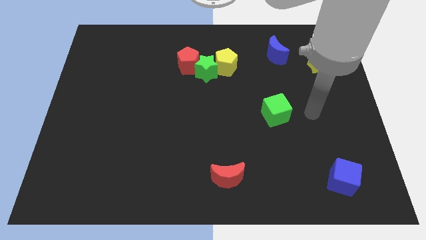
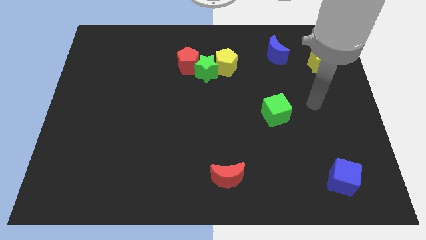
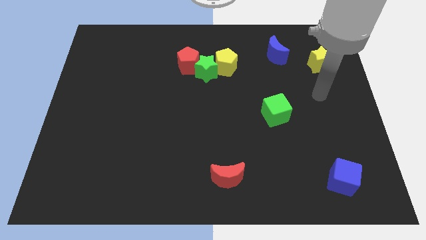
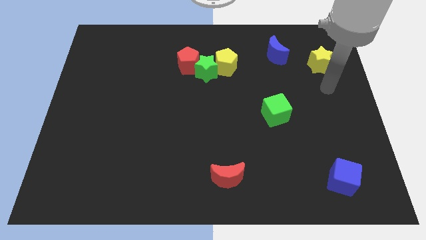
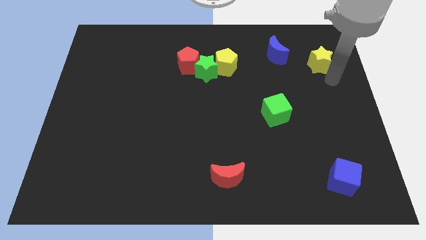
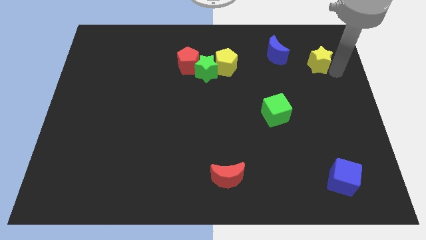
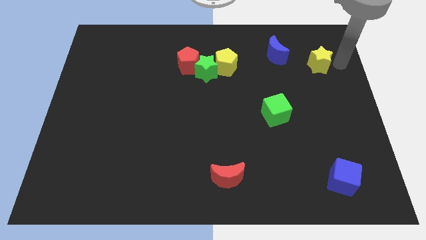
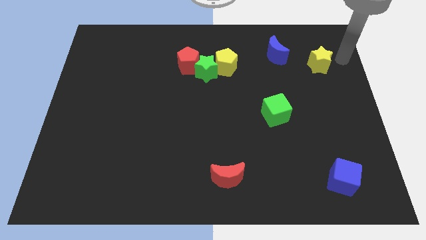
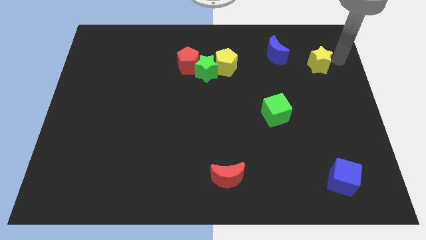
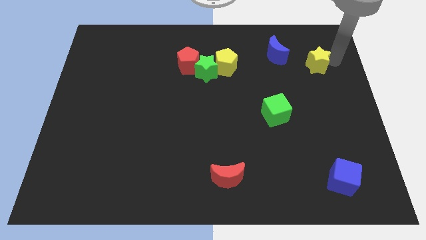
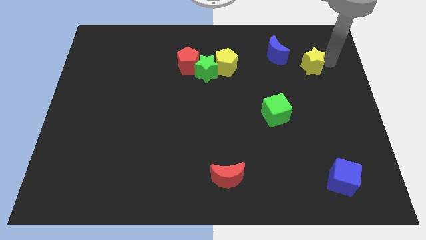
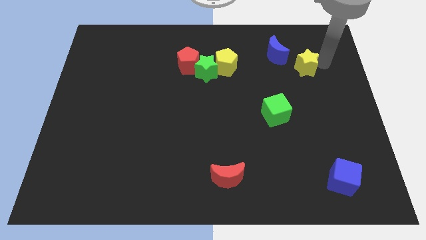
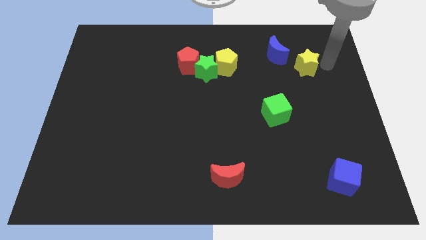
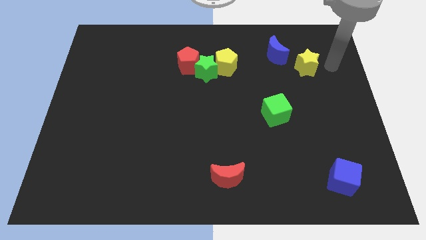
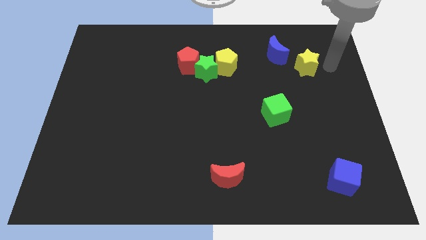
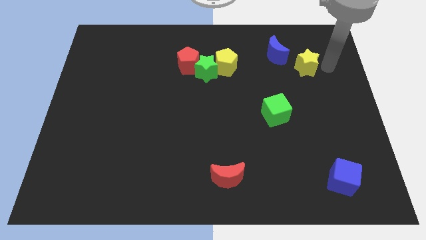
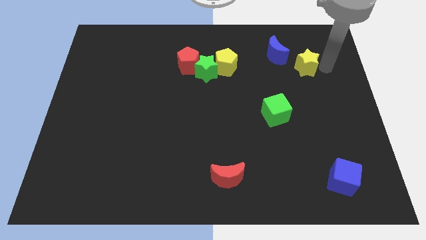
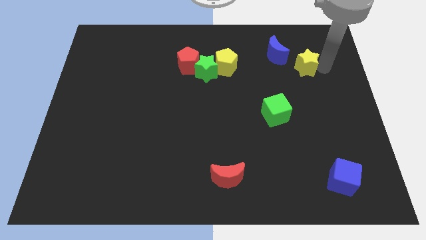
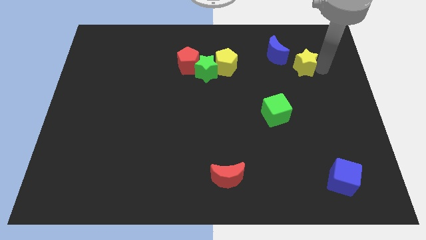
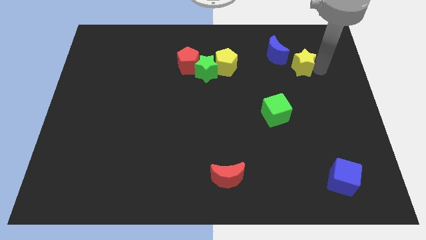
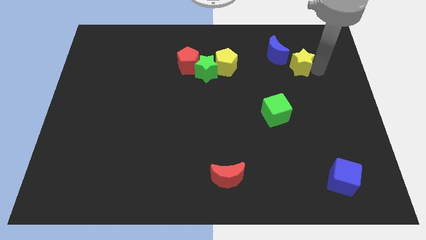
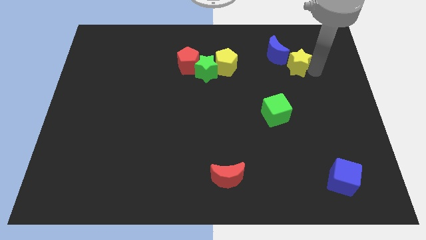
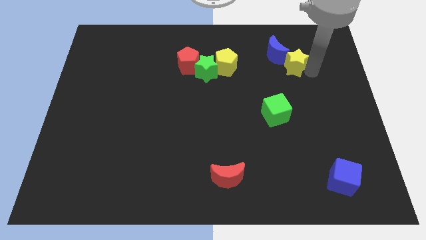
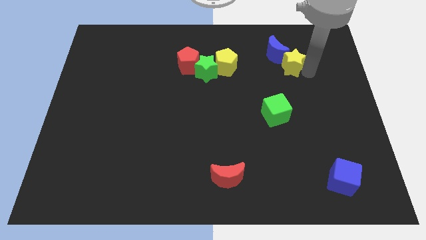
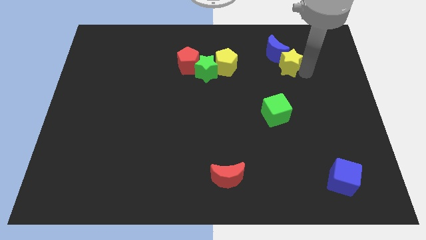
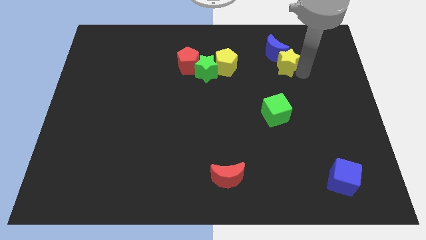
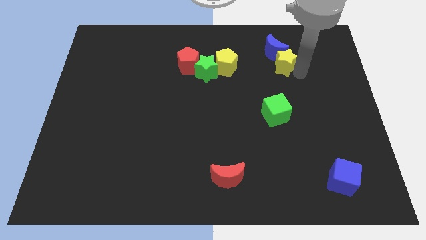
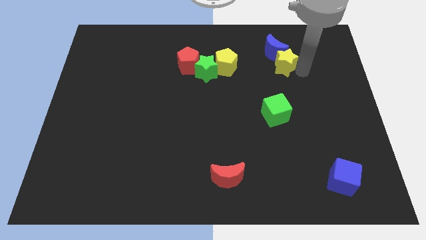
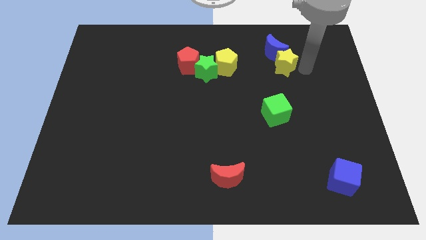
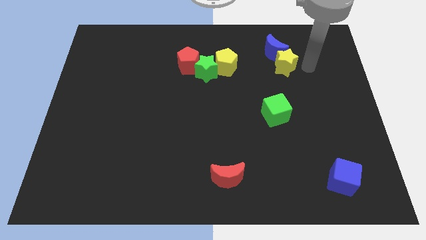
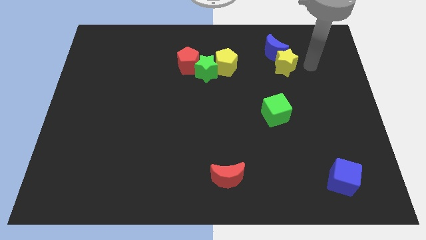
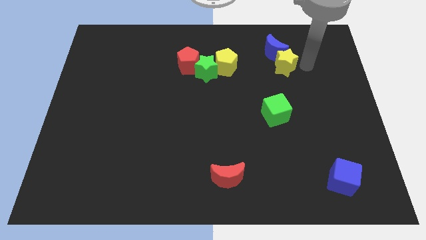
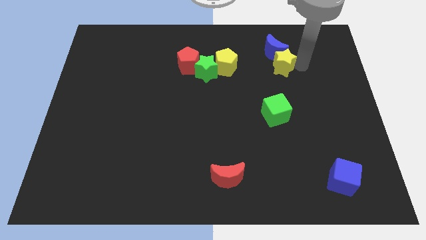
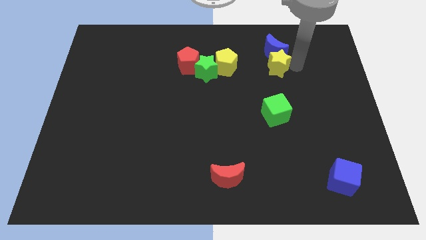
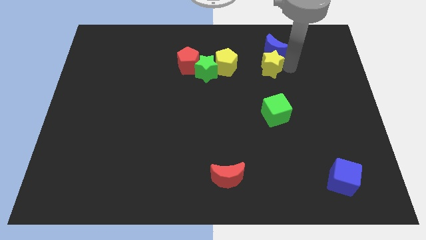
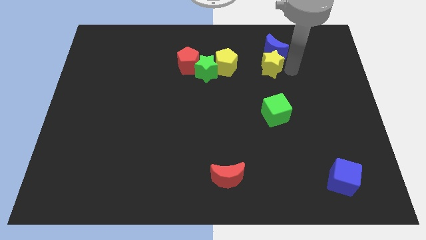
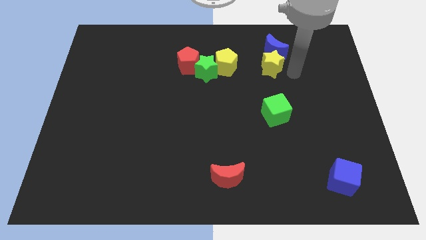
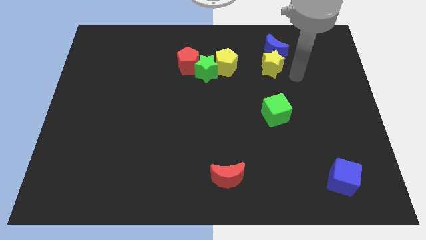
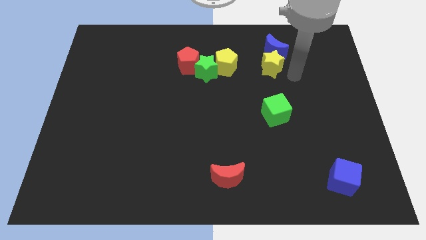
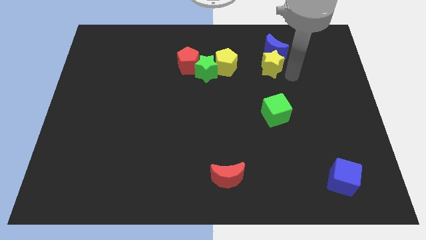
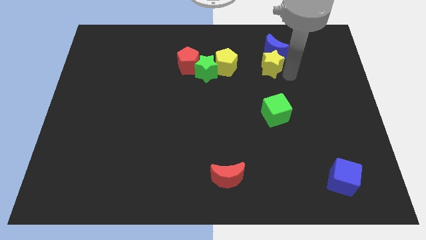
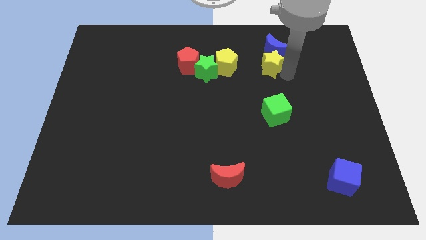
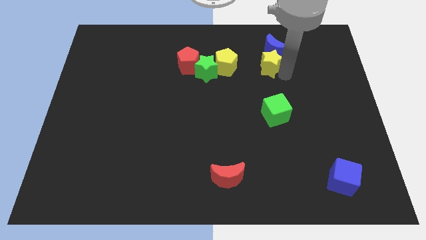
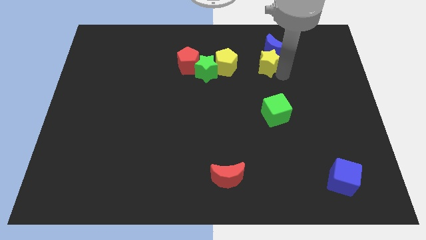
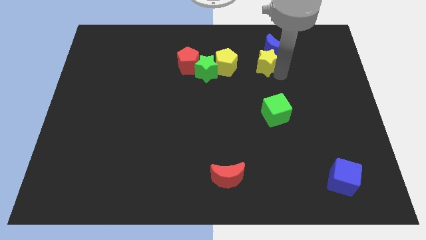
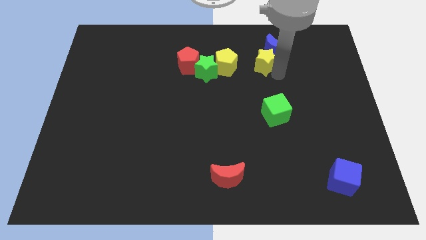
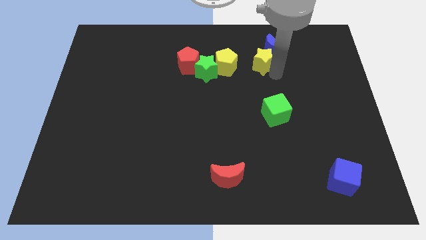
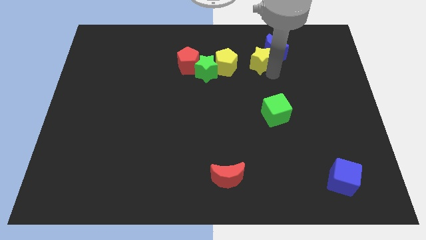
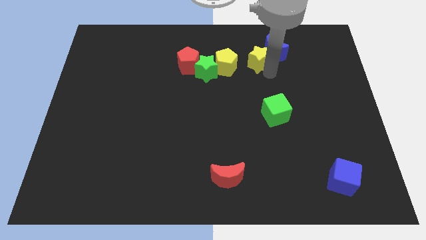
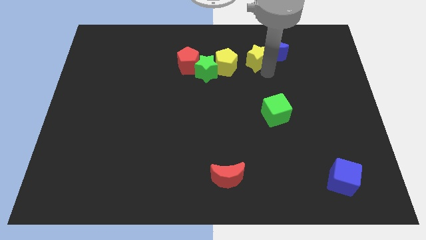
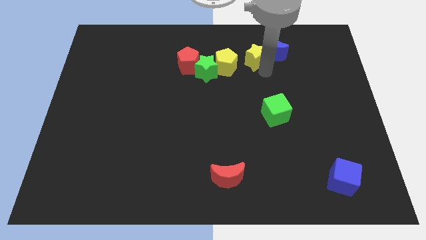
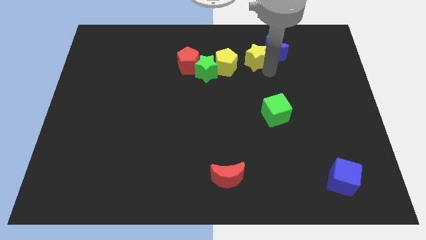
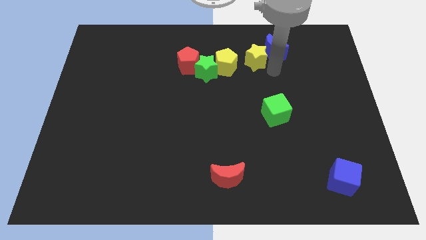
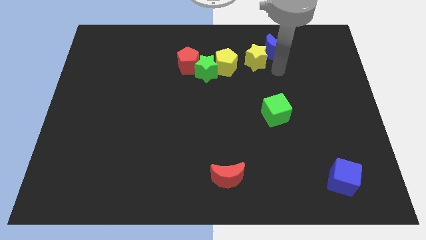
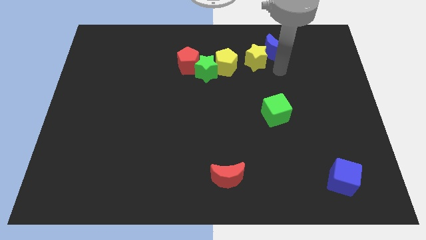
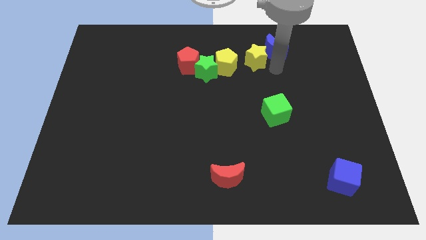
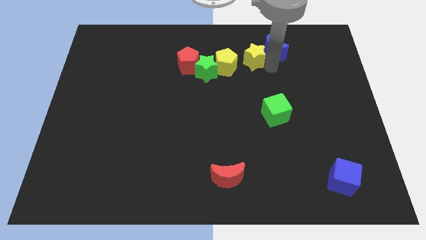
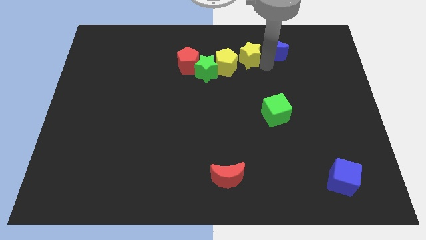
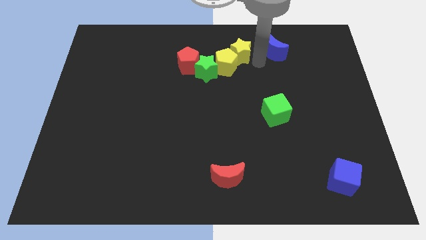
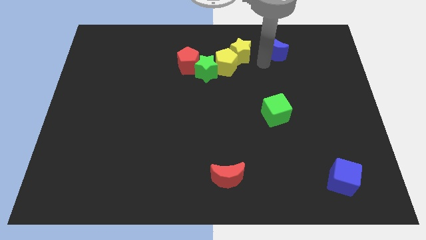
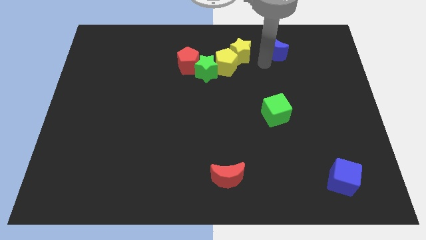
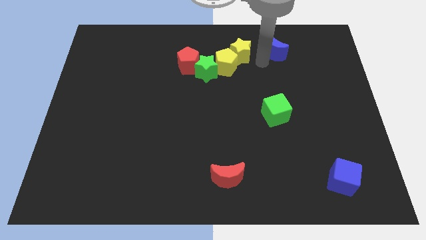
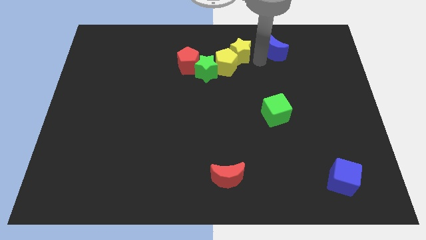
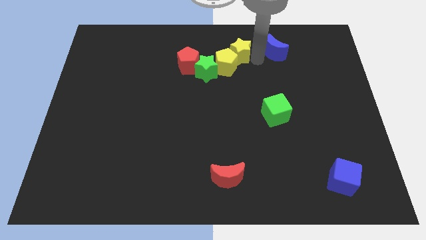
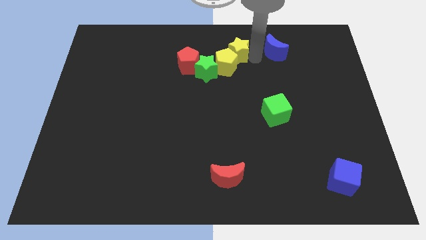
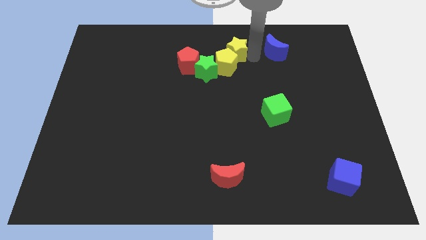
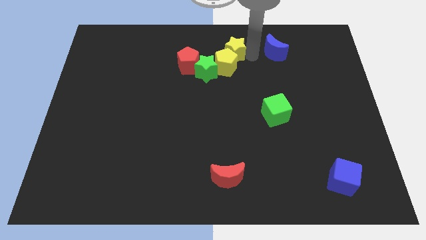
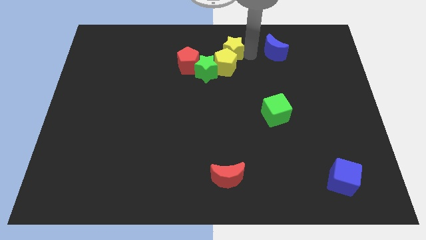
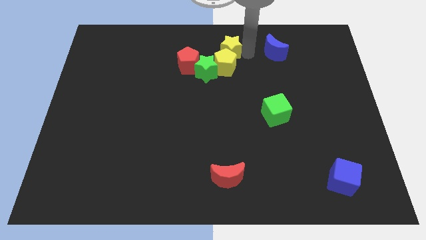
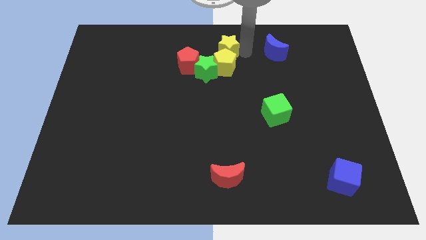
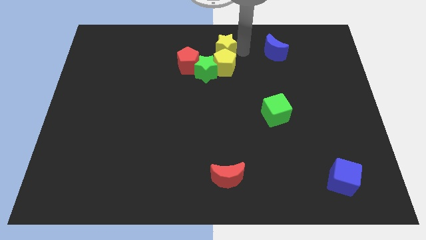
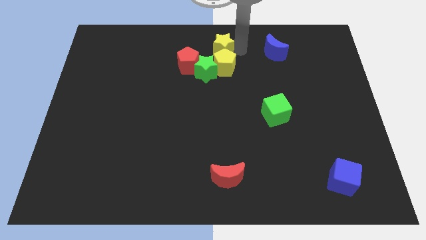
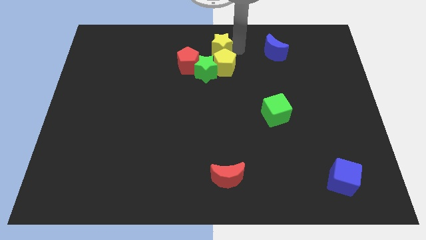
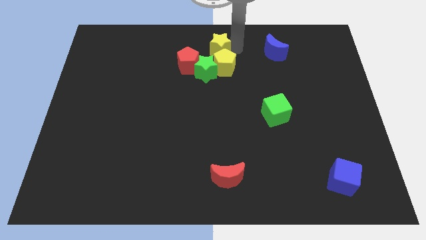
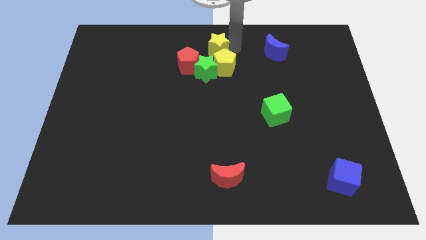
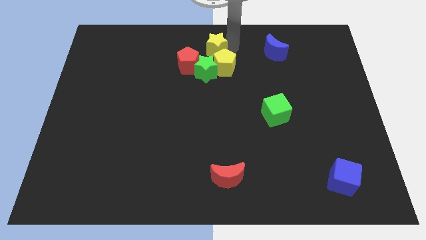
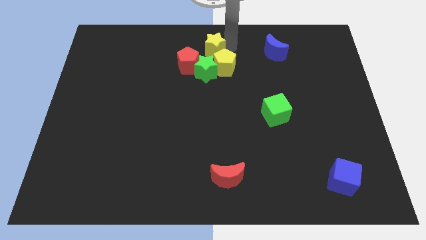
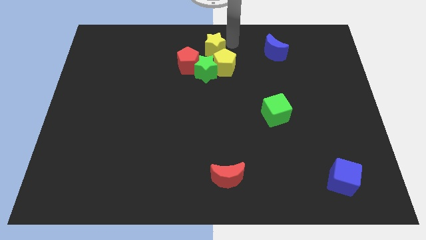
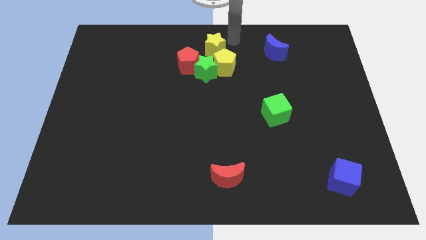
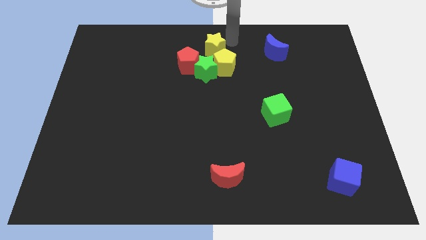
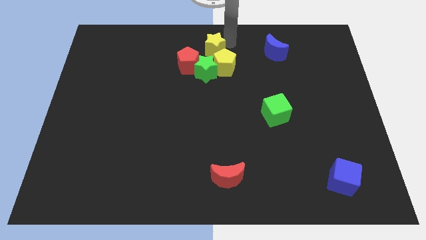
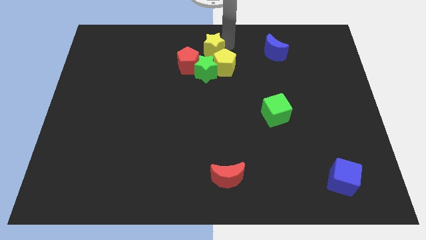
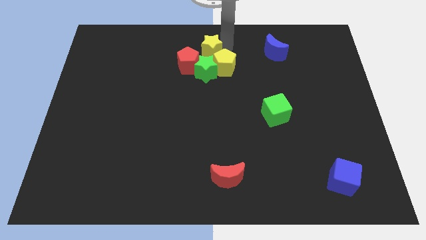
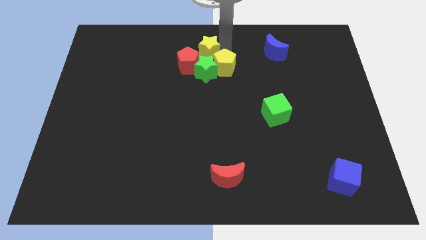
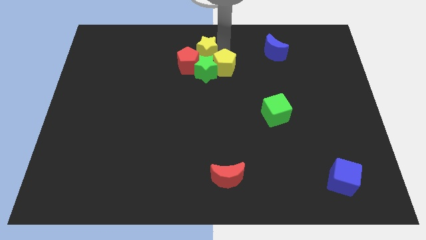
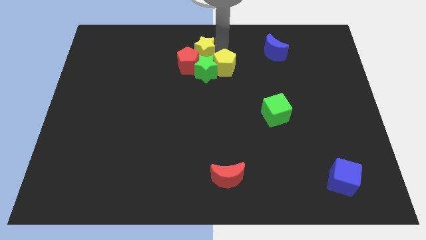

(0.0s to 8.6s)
move the yellow star next to the red pentagon
